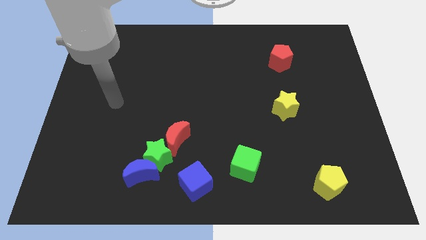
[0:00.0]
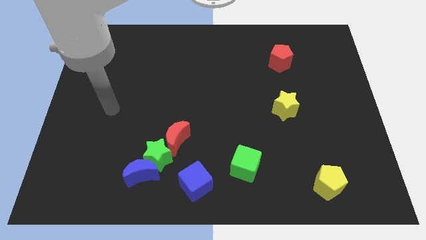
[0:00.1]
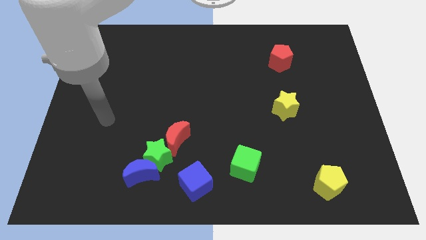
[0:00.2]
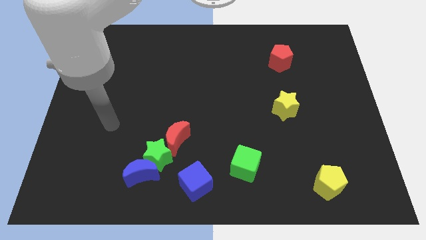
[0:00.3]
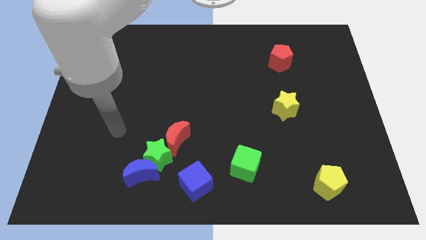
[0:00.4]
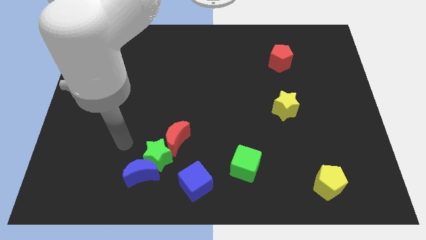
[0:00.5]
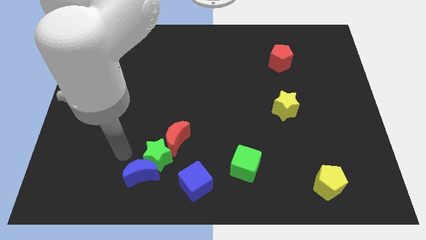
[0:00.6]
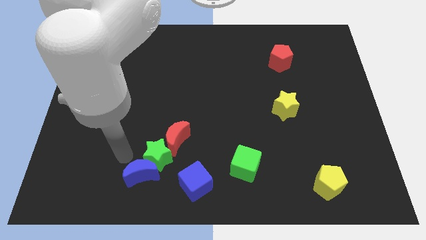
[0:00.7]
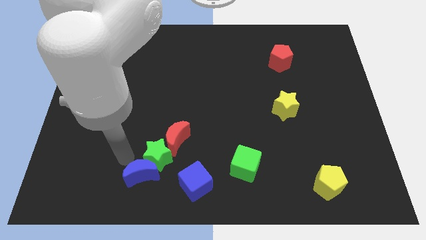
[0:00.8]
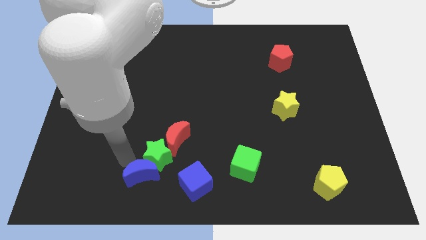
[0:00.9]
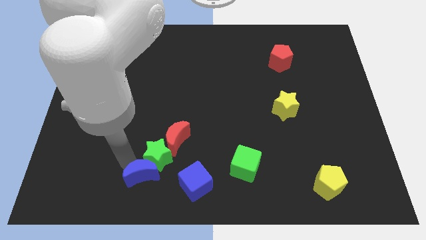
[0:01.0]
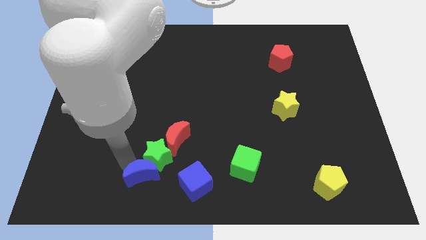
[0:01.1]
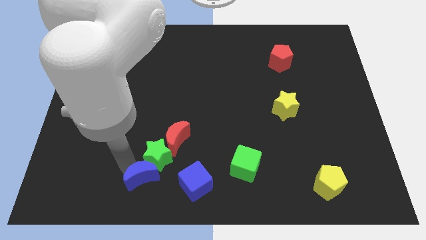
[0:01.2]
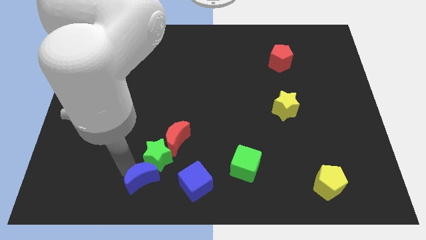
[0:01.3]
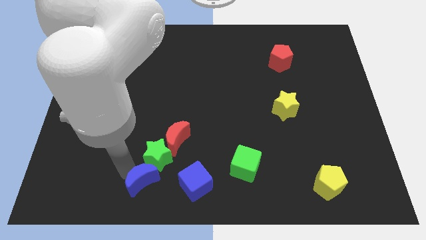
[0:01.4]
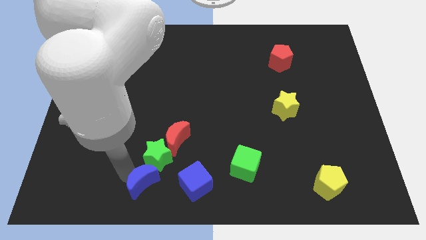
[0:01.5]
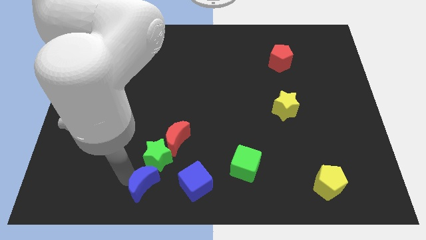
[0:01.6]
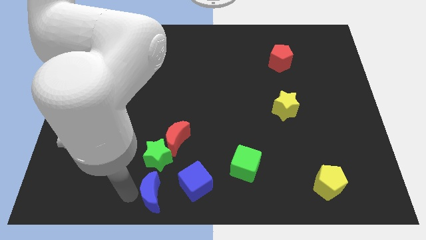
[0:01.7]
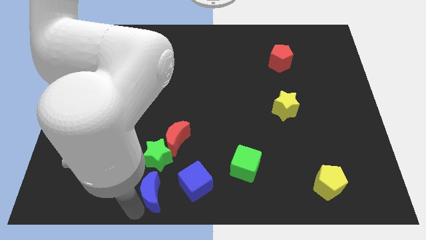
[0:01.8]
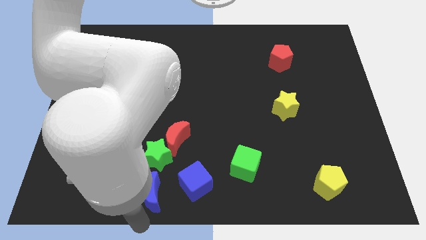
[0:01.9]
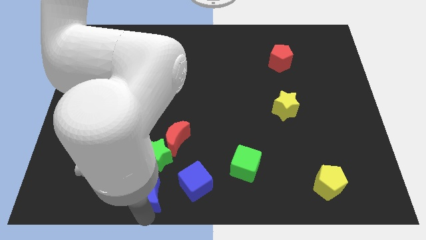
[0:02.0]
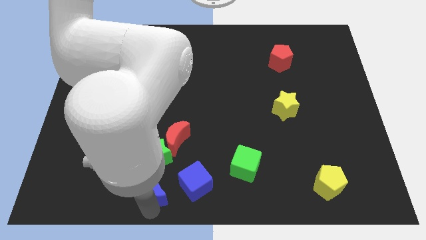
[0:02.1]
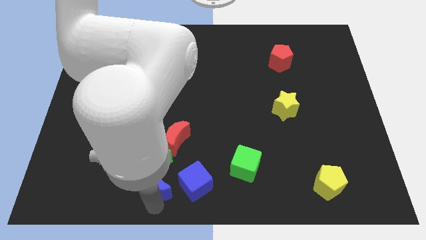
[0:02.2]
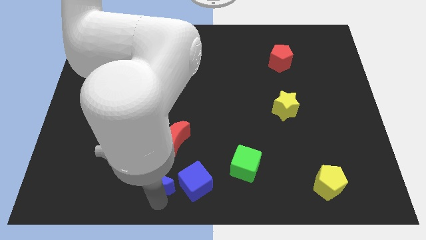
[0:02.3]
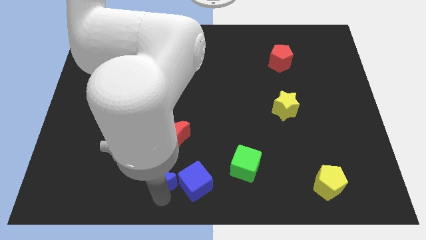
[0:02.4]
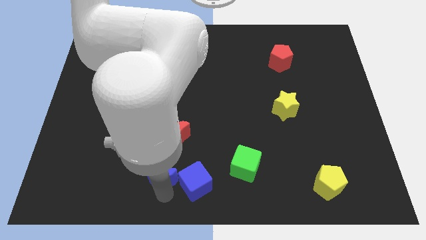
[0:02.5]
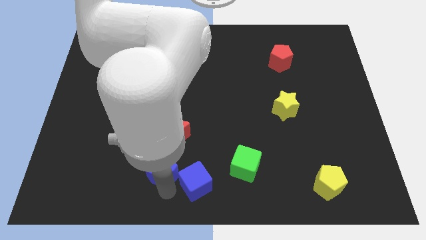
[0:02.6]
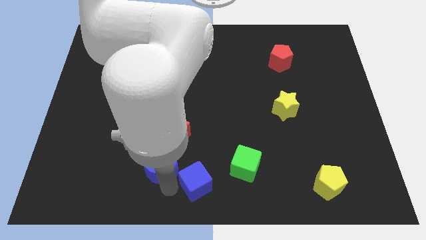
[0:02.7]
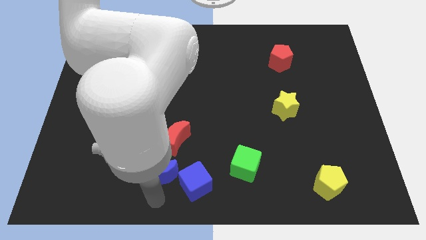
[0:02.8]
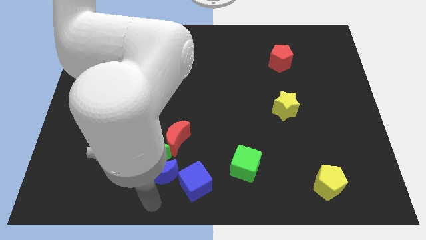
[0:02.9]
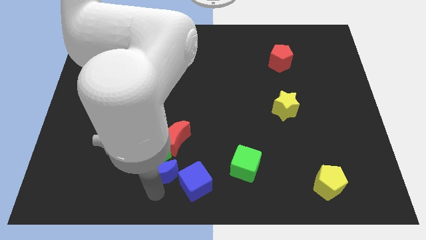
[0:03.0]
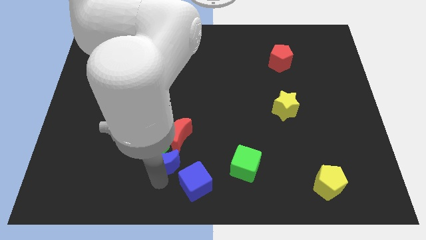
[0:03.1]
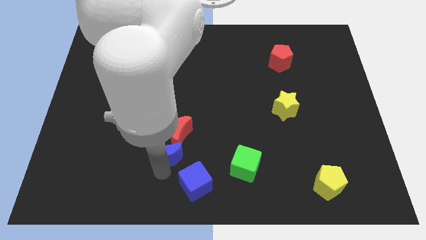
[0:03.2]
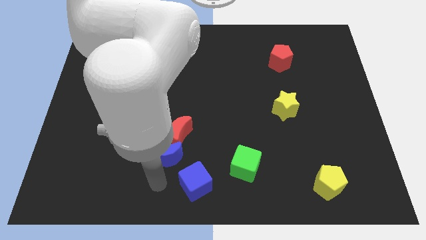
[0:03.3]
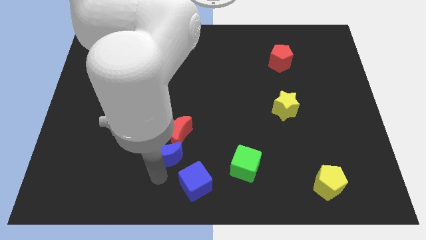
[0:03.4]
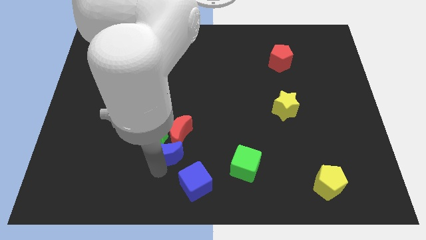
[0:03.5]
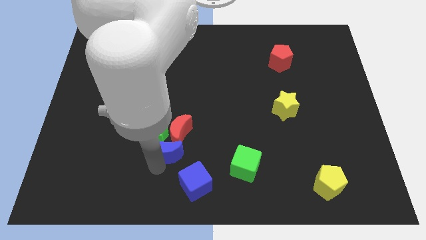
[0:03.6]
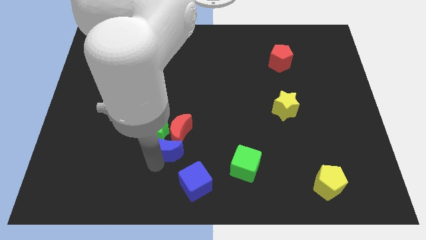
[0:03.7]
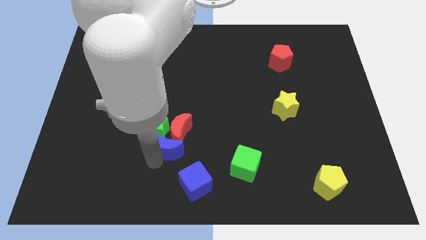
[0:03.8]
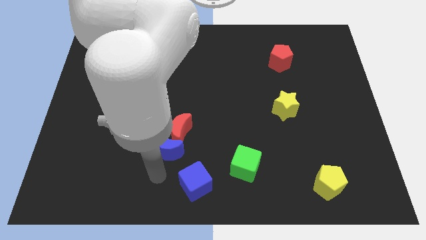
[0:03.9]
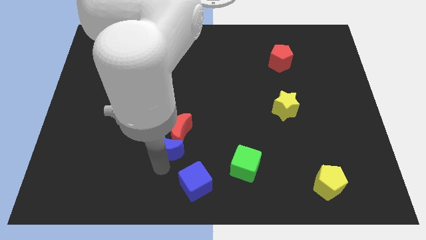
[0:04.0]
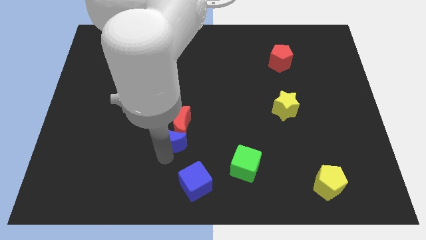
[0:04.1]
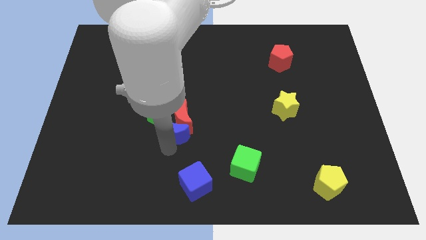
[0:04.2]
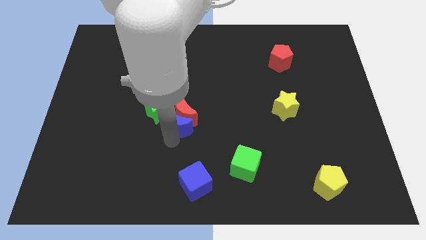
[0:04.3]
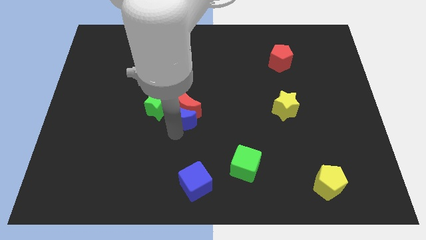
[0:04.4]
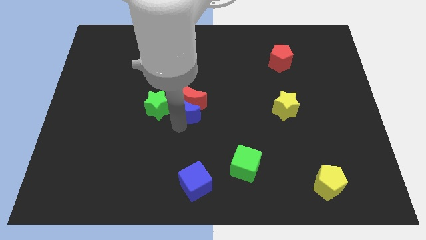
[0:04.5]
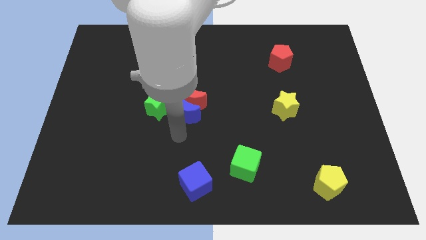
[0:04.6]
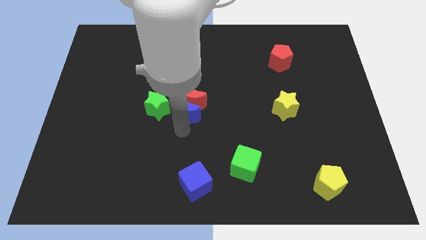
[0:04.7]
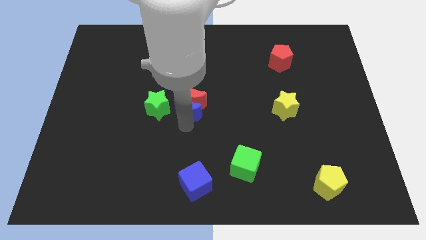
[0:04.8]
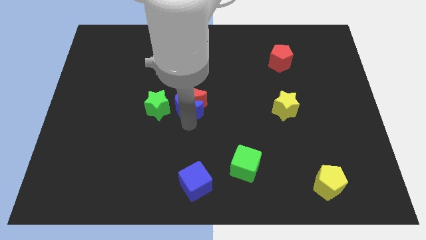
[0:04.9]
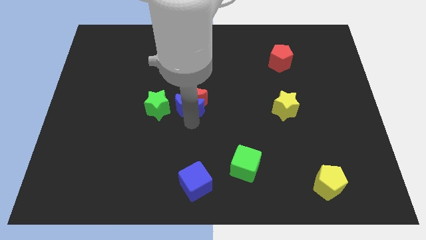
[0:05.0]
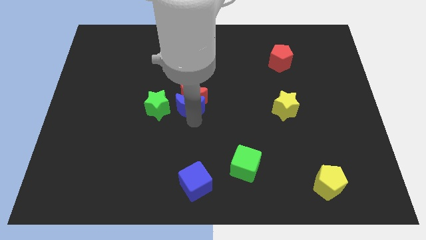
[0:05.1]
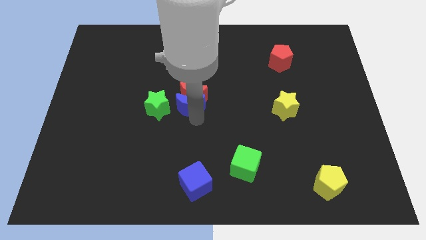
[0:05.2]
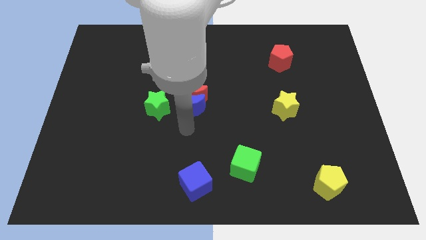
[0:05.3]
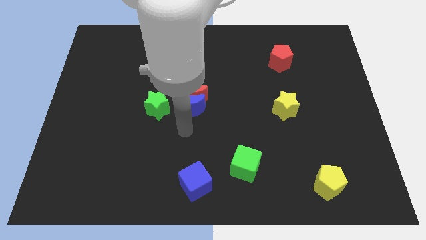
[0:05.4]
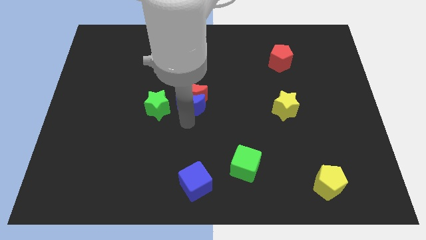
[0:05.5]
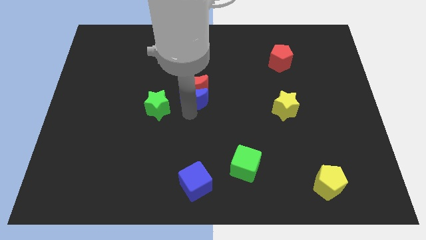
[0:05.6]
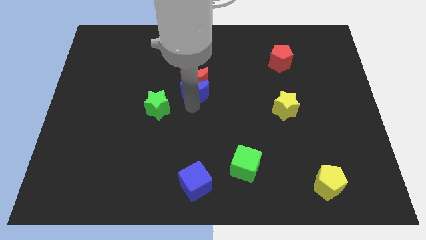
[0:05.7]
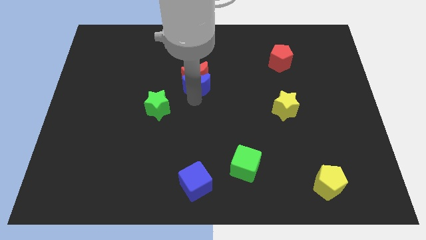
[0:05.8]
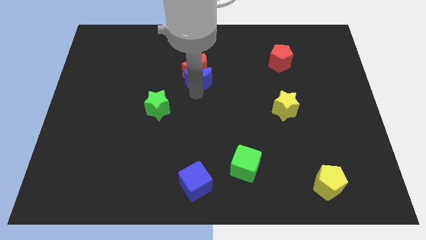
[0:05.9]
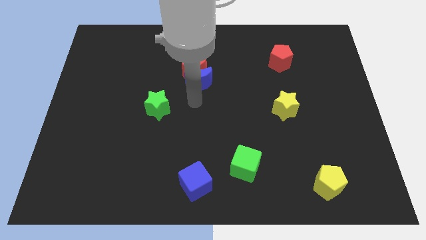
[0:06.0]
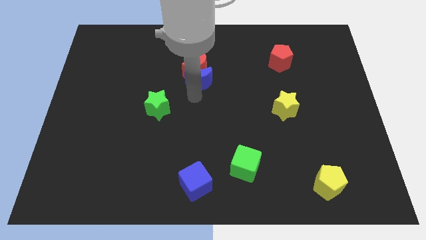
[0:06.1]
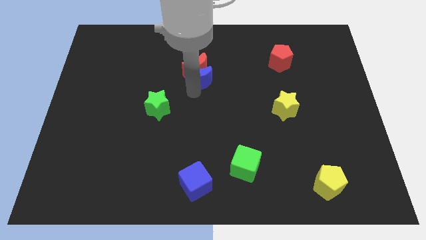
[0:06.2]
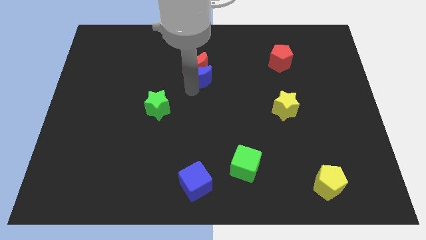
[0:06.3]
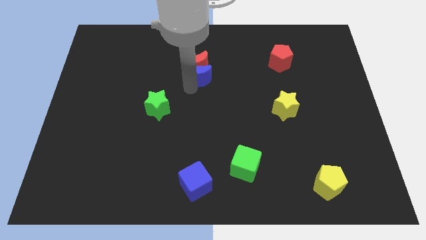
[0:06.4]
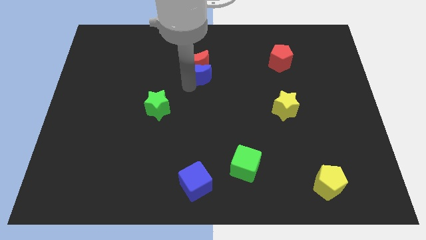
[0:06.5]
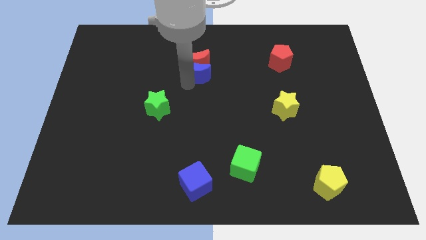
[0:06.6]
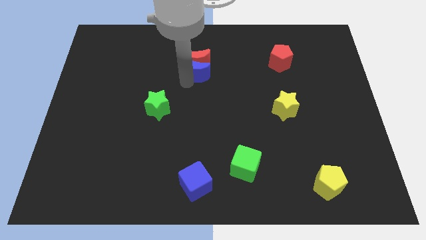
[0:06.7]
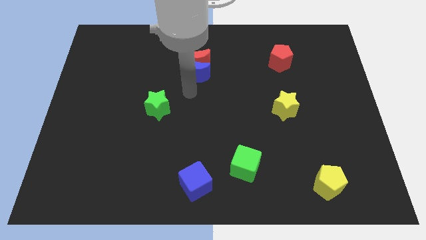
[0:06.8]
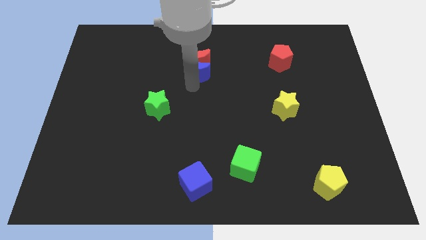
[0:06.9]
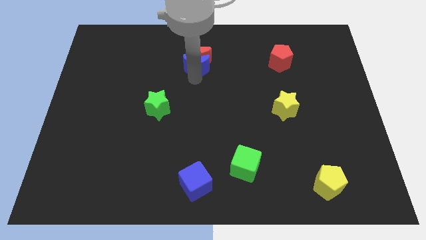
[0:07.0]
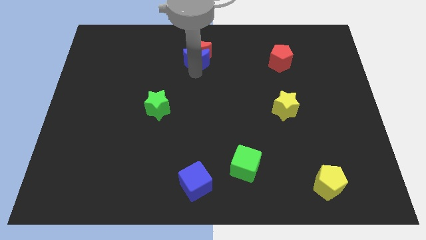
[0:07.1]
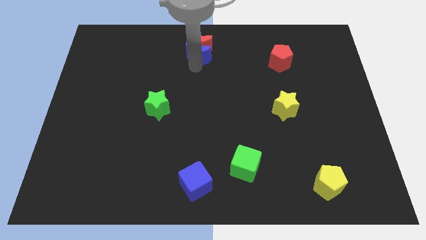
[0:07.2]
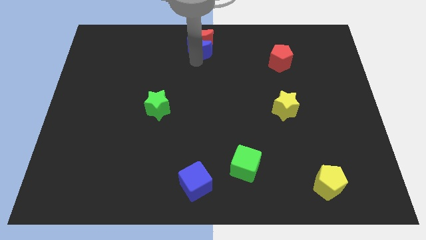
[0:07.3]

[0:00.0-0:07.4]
move the blue moon to the top

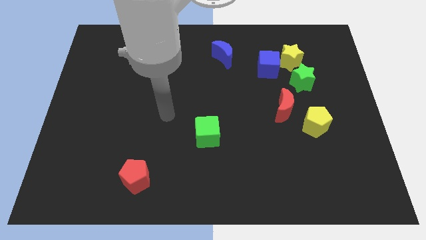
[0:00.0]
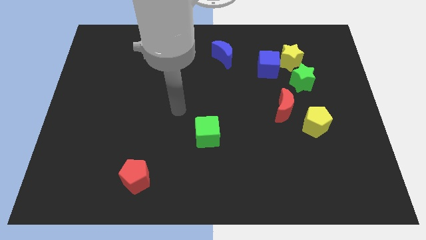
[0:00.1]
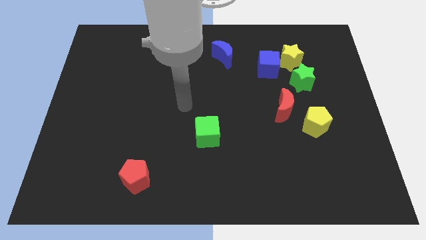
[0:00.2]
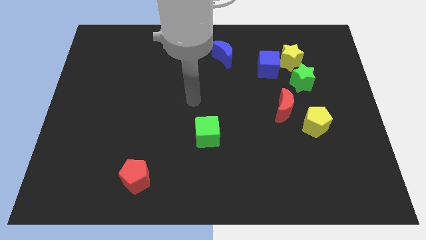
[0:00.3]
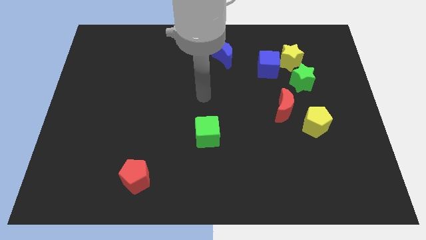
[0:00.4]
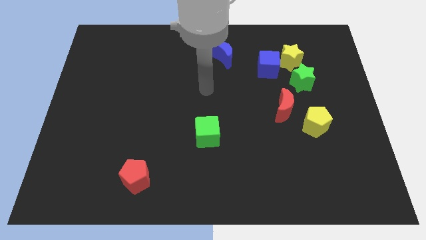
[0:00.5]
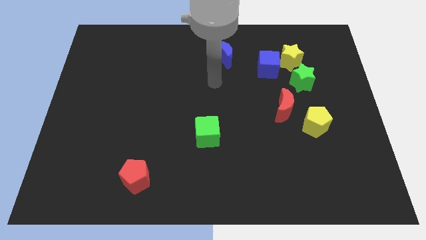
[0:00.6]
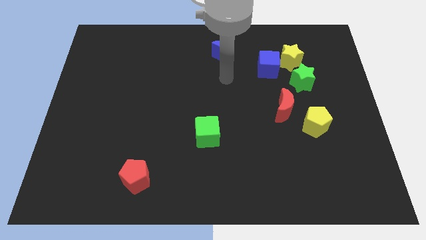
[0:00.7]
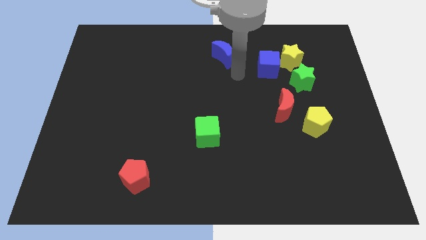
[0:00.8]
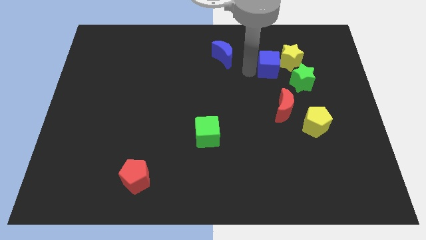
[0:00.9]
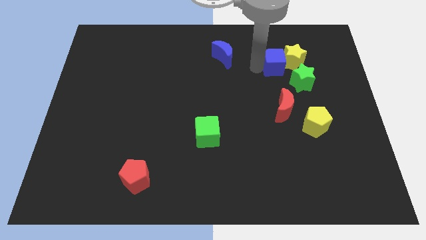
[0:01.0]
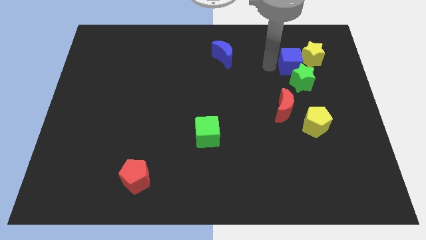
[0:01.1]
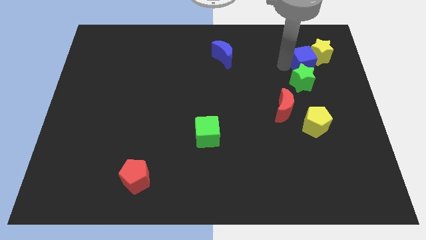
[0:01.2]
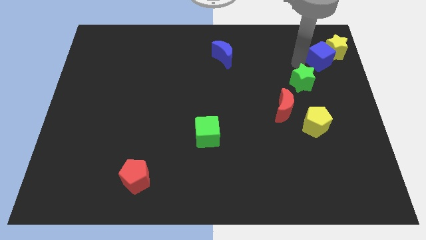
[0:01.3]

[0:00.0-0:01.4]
push the yellow star to the top right corner
